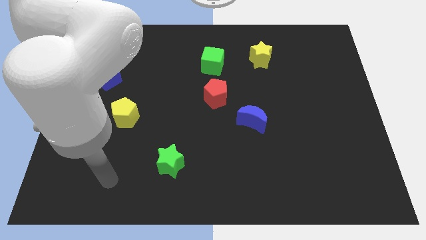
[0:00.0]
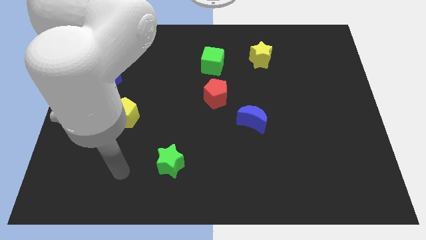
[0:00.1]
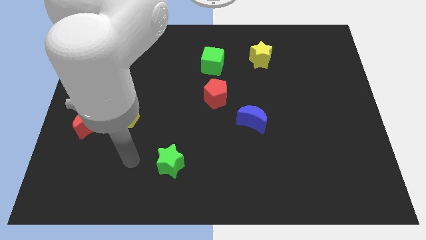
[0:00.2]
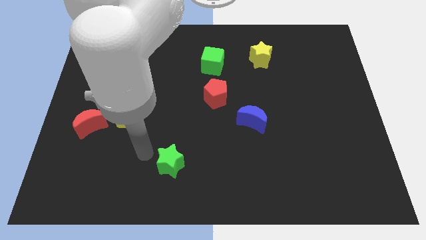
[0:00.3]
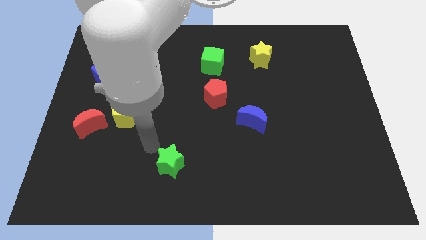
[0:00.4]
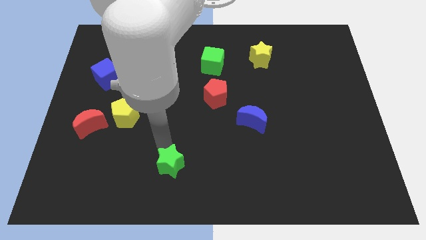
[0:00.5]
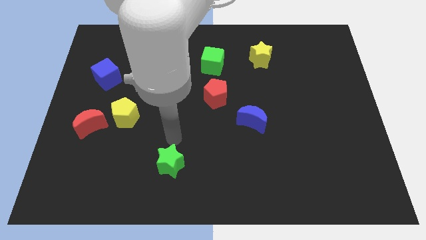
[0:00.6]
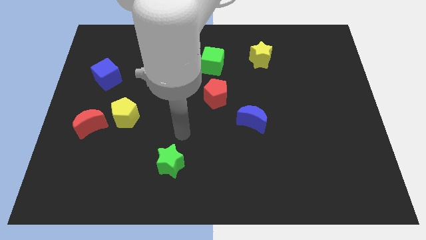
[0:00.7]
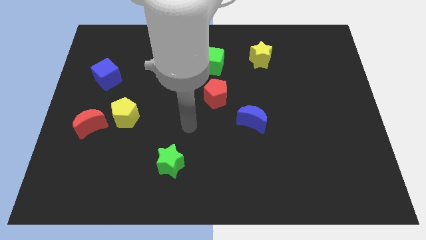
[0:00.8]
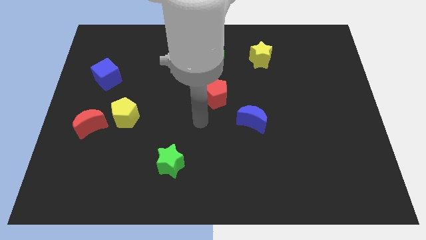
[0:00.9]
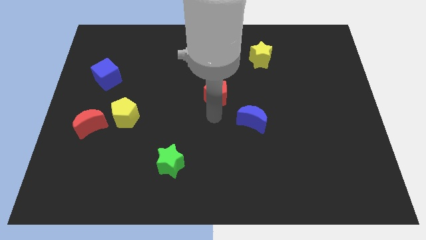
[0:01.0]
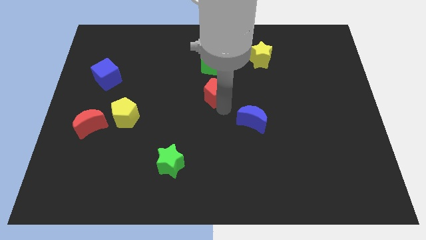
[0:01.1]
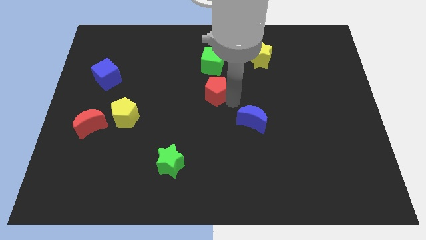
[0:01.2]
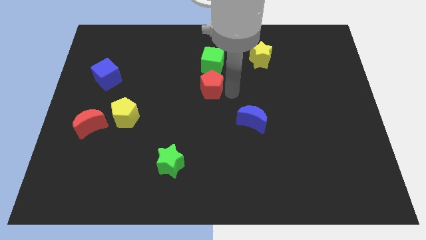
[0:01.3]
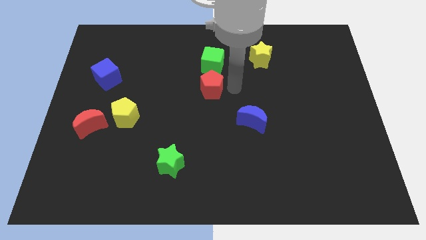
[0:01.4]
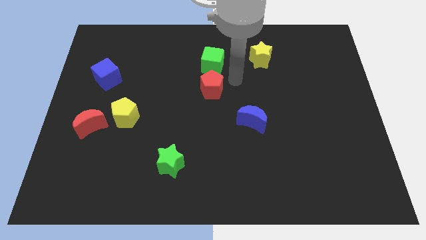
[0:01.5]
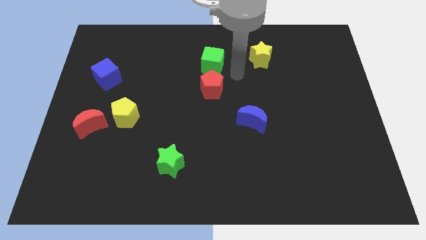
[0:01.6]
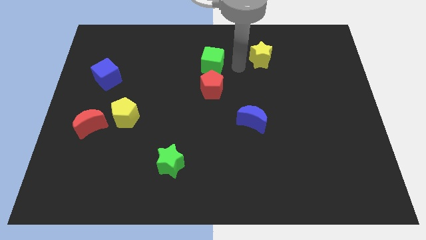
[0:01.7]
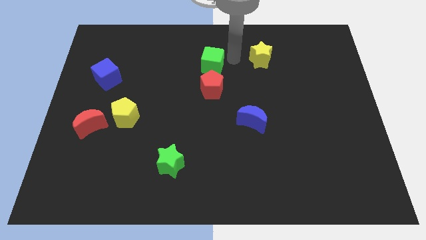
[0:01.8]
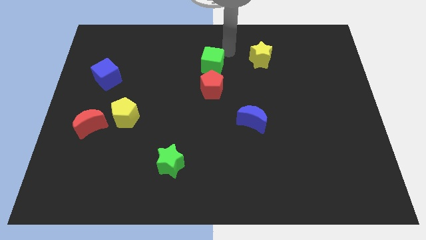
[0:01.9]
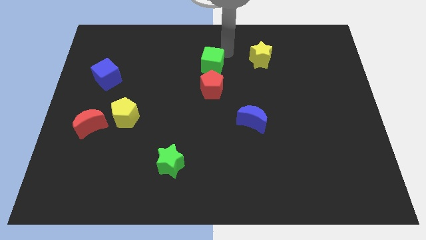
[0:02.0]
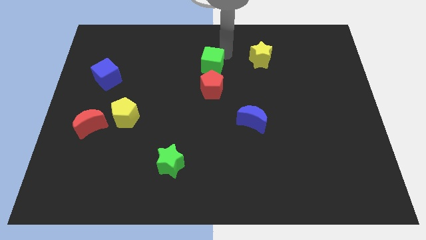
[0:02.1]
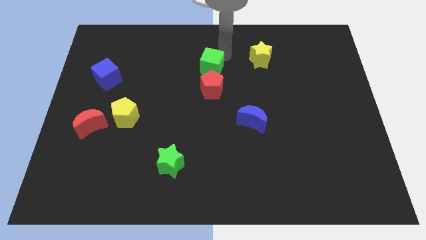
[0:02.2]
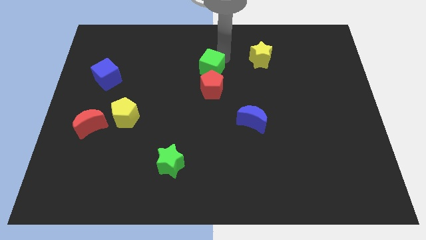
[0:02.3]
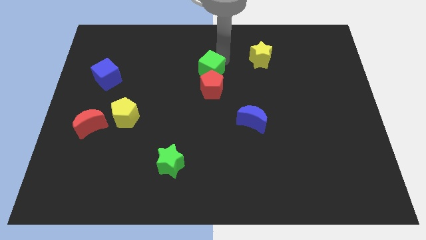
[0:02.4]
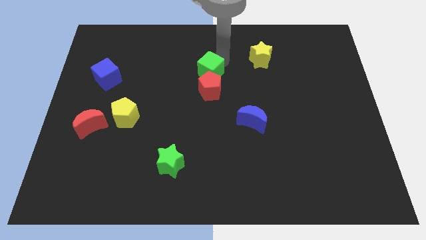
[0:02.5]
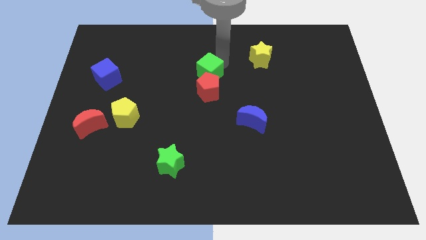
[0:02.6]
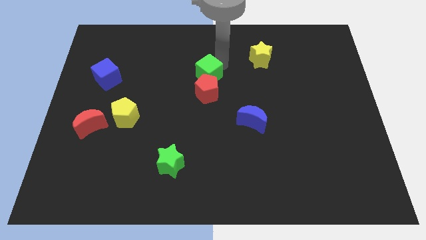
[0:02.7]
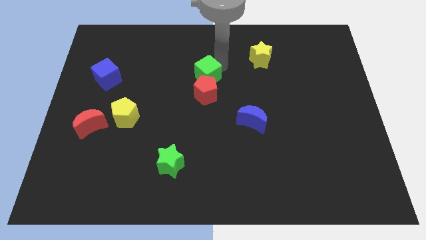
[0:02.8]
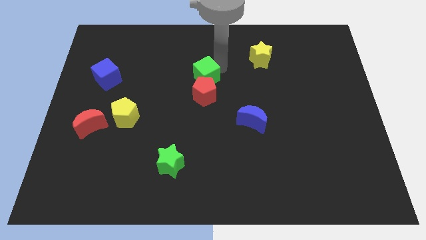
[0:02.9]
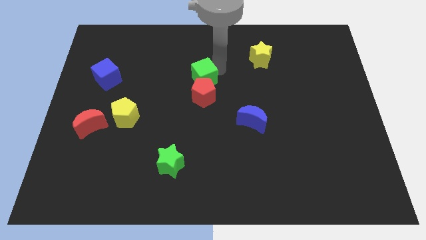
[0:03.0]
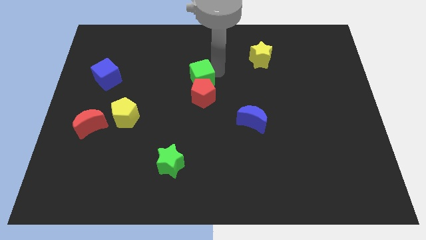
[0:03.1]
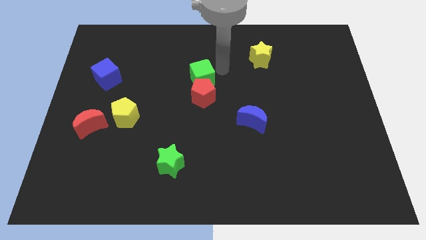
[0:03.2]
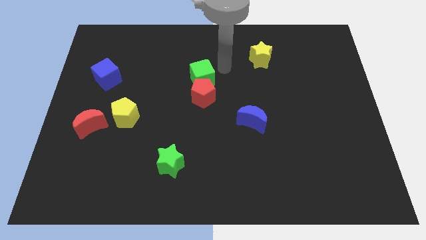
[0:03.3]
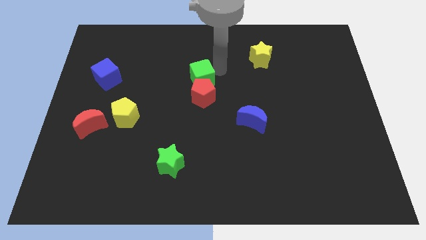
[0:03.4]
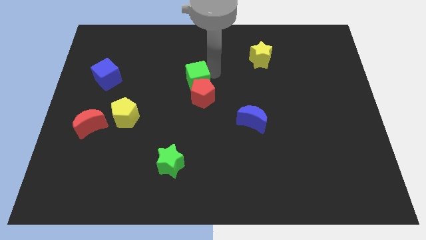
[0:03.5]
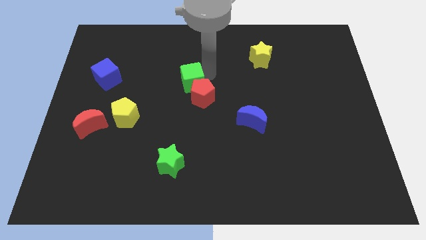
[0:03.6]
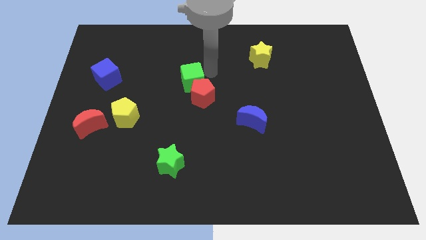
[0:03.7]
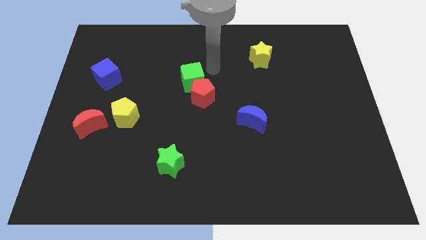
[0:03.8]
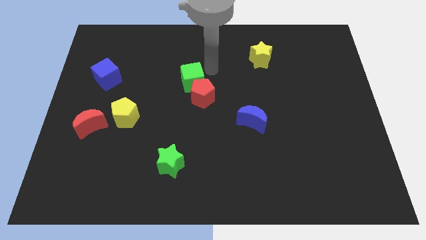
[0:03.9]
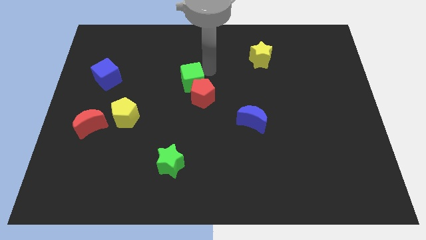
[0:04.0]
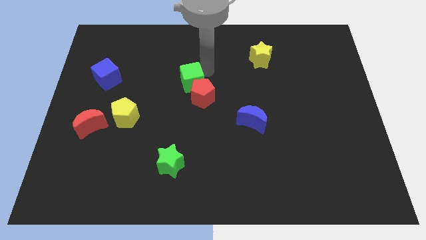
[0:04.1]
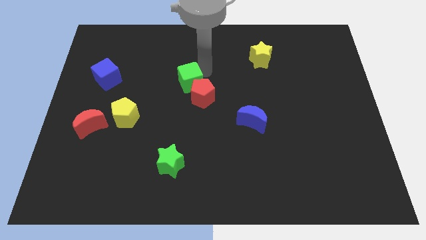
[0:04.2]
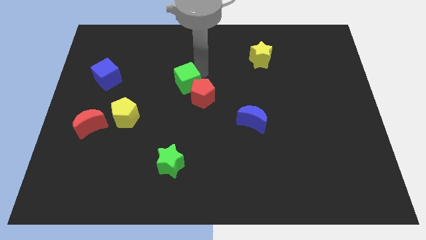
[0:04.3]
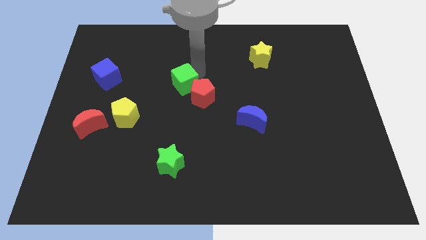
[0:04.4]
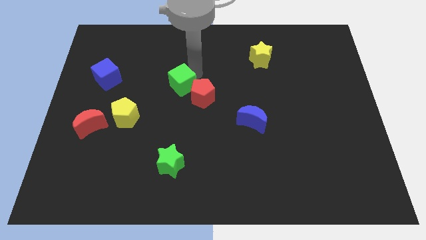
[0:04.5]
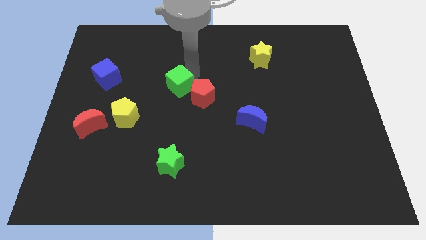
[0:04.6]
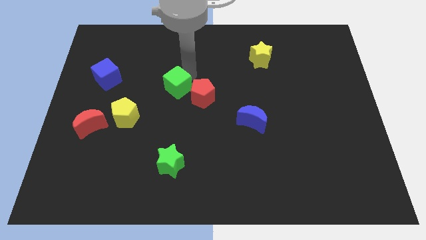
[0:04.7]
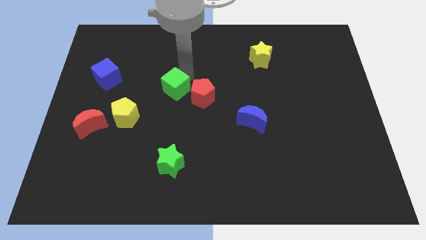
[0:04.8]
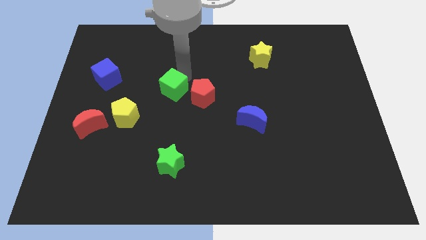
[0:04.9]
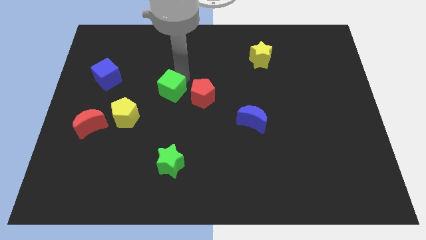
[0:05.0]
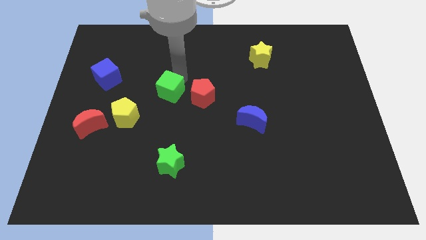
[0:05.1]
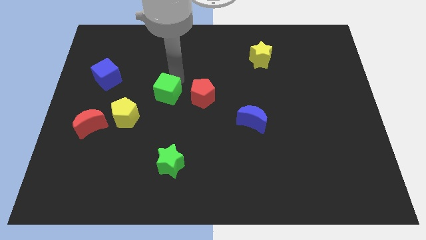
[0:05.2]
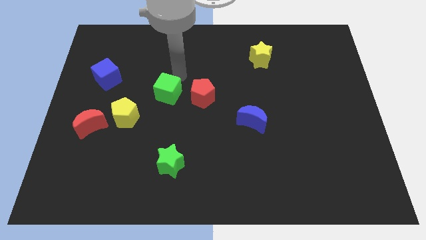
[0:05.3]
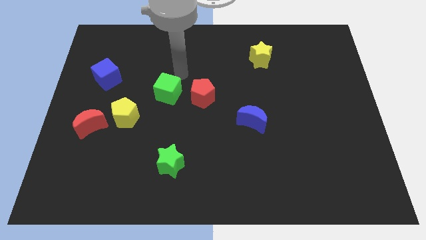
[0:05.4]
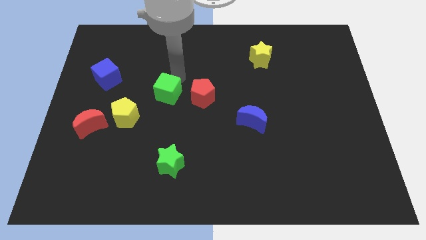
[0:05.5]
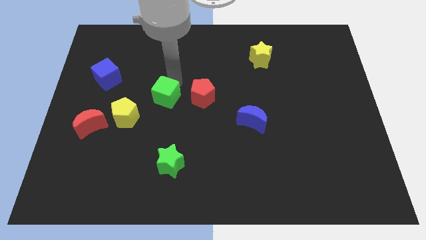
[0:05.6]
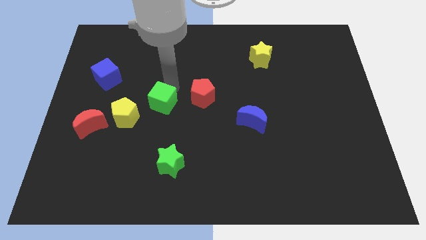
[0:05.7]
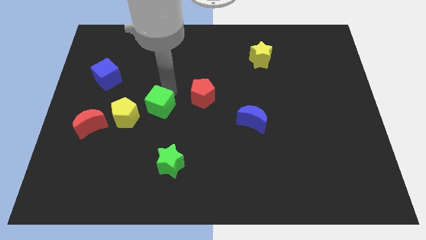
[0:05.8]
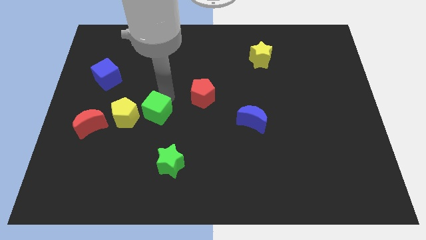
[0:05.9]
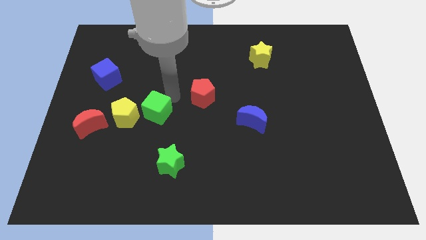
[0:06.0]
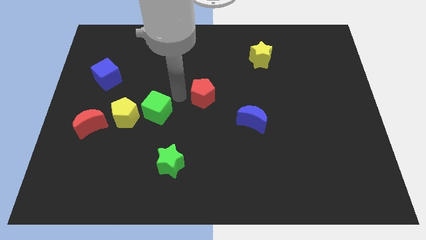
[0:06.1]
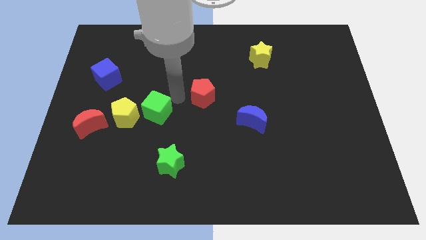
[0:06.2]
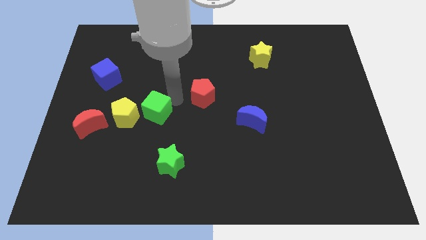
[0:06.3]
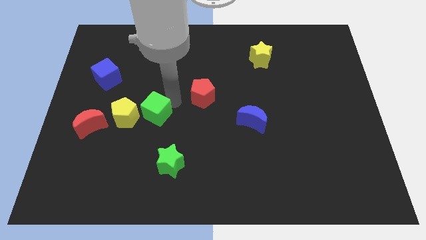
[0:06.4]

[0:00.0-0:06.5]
move the green cube to the right of the red moon

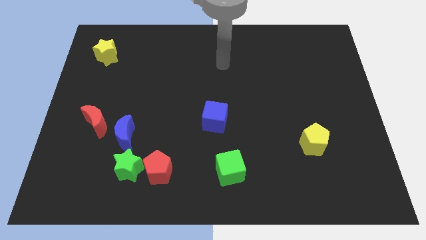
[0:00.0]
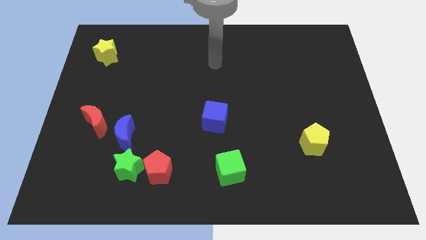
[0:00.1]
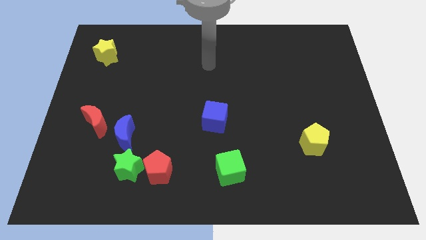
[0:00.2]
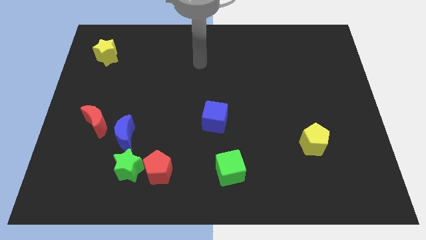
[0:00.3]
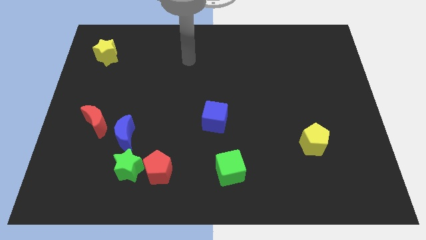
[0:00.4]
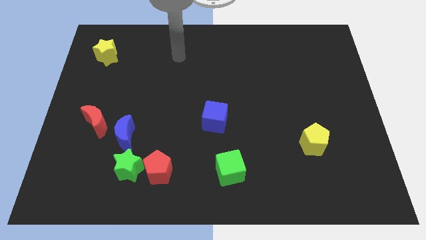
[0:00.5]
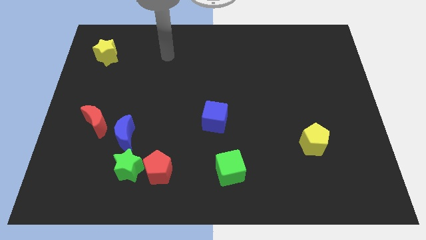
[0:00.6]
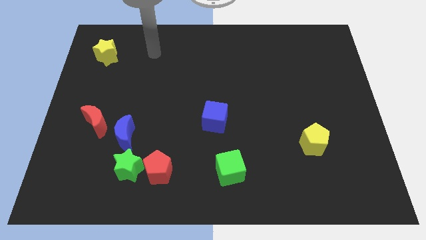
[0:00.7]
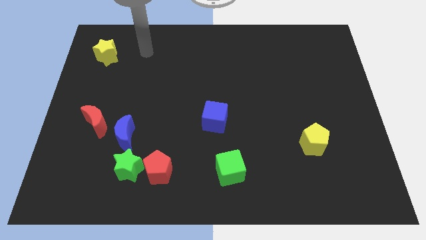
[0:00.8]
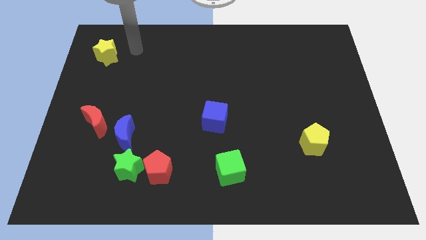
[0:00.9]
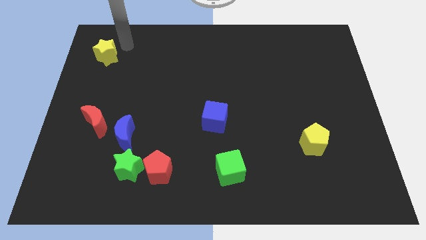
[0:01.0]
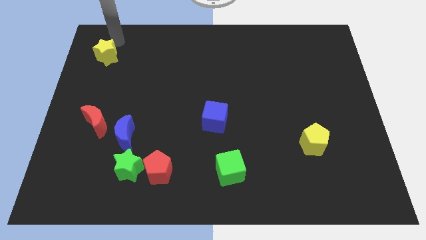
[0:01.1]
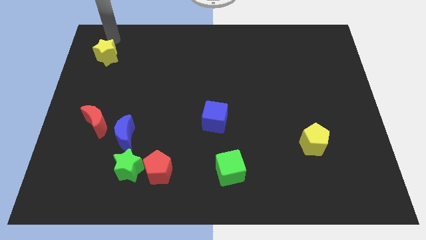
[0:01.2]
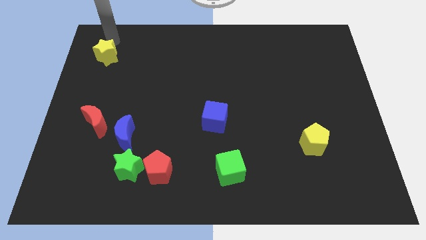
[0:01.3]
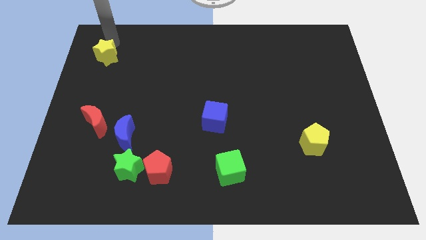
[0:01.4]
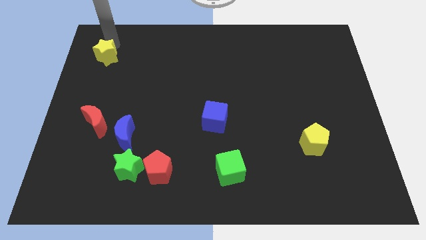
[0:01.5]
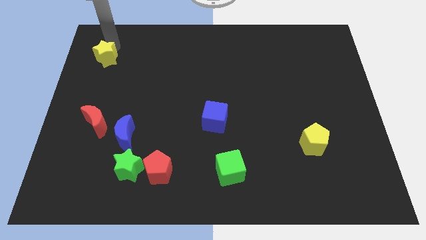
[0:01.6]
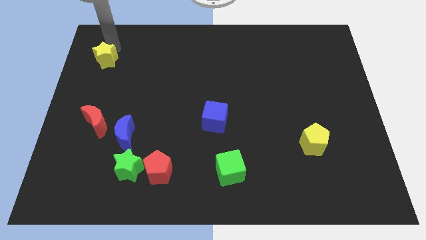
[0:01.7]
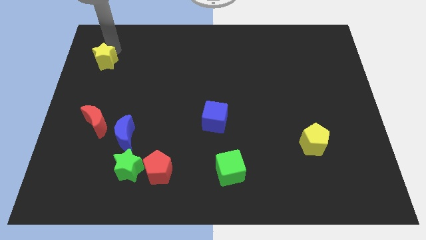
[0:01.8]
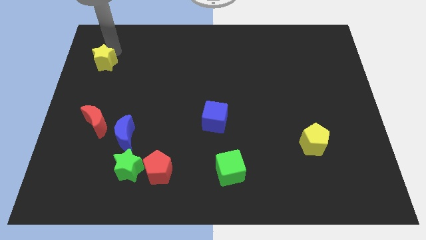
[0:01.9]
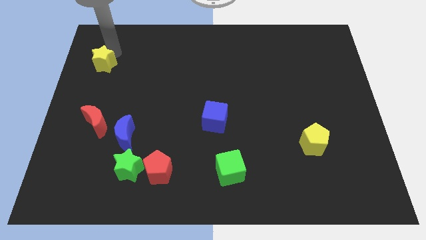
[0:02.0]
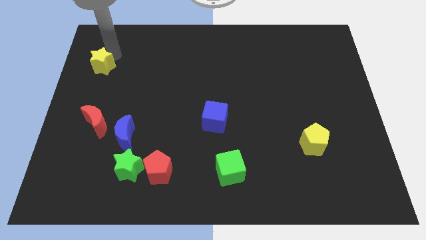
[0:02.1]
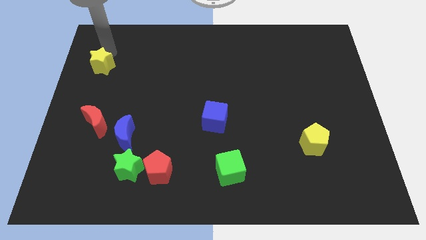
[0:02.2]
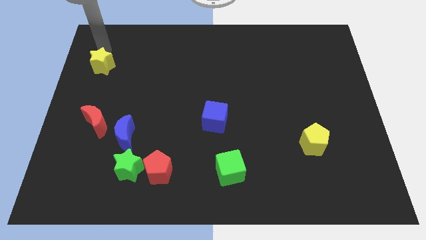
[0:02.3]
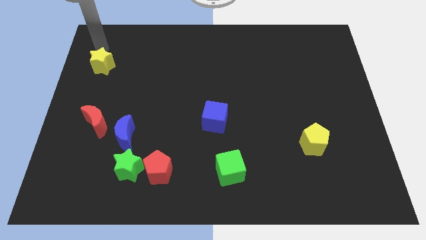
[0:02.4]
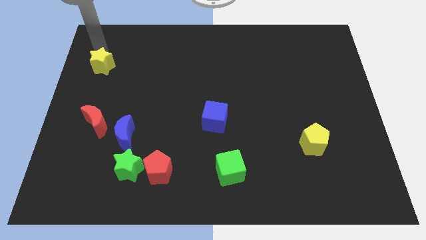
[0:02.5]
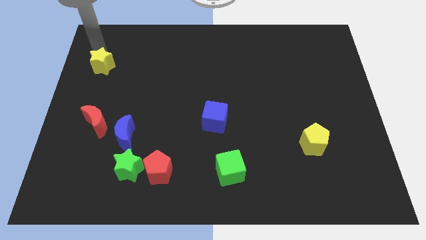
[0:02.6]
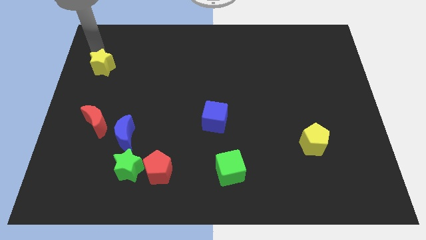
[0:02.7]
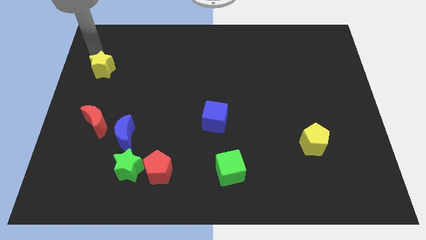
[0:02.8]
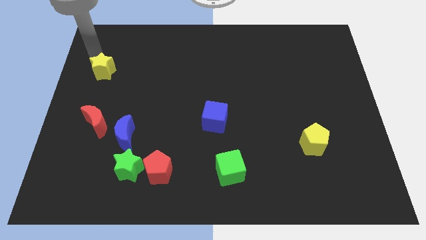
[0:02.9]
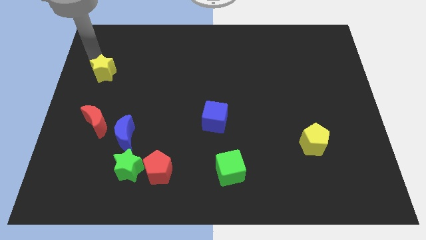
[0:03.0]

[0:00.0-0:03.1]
put the yellow star to the top of the red moon
